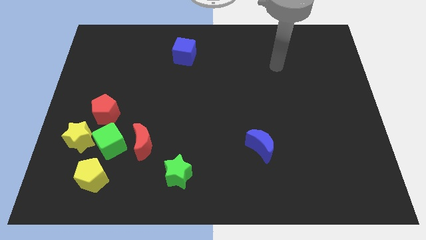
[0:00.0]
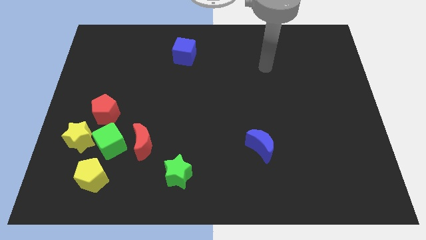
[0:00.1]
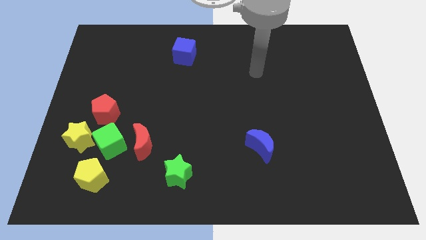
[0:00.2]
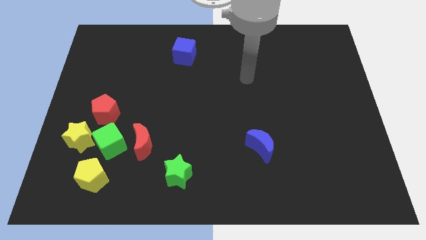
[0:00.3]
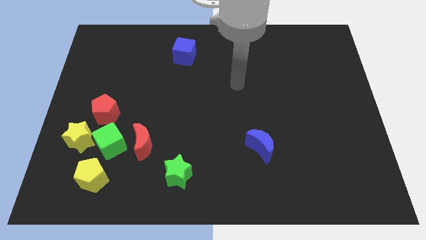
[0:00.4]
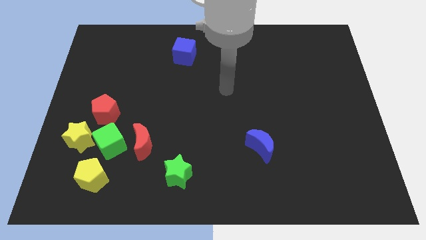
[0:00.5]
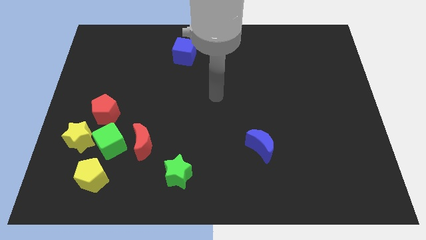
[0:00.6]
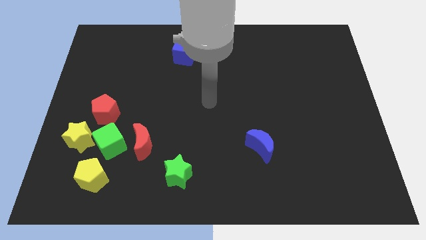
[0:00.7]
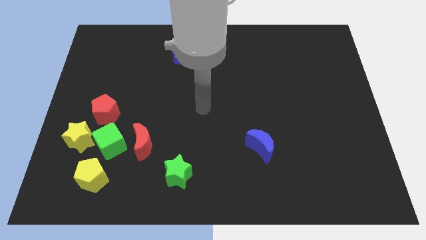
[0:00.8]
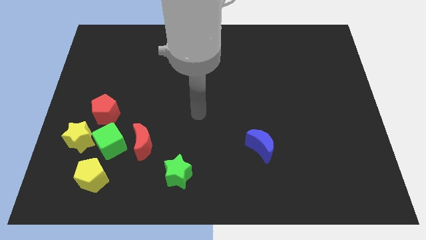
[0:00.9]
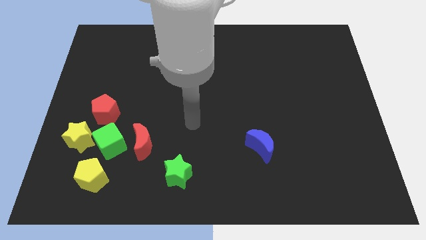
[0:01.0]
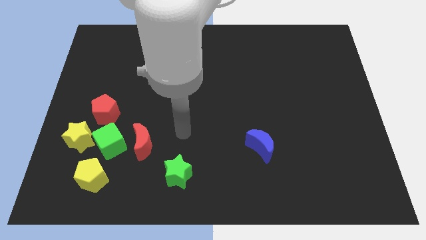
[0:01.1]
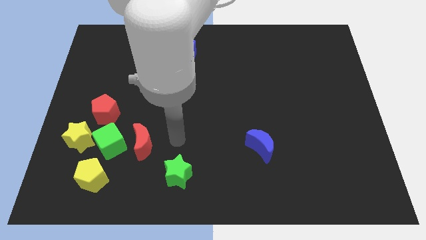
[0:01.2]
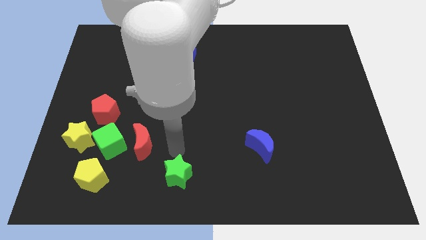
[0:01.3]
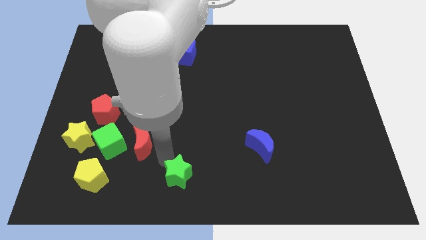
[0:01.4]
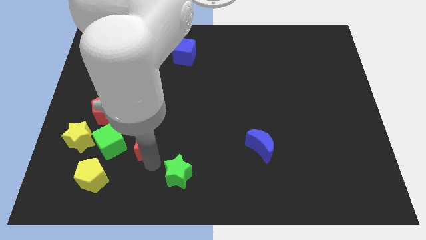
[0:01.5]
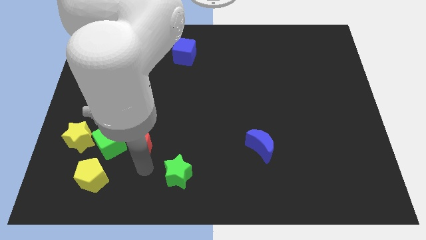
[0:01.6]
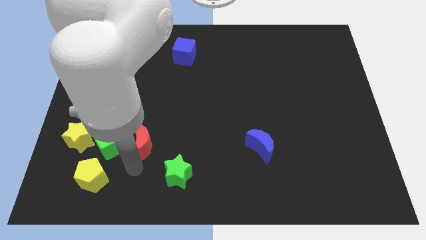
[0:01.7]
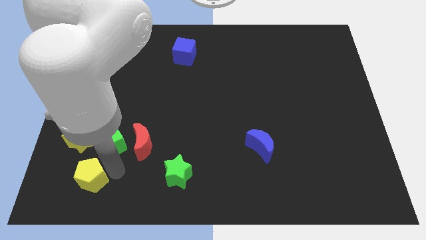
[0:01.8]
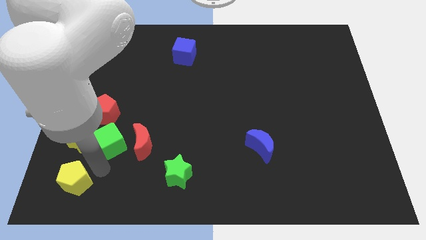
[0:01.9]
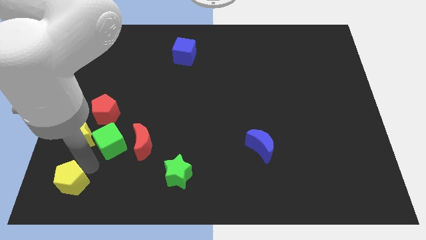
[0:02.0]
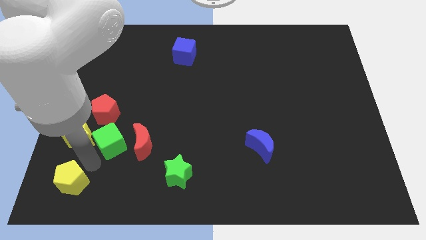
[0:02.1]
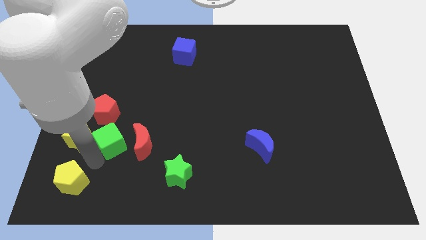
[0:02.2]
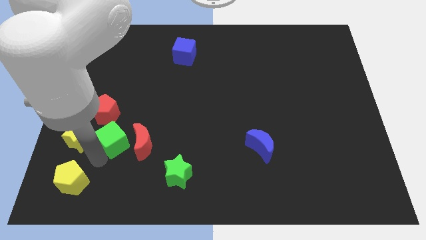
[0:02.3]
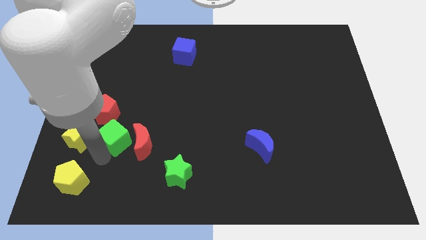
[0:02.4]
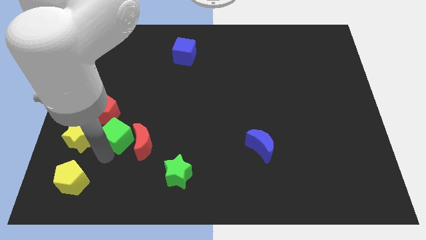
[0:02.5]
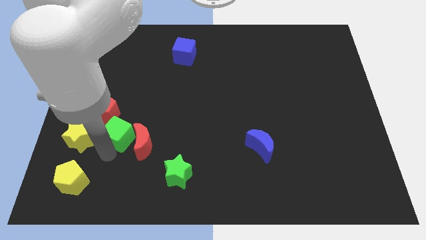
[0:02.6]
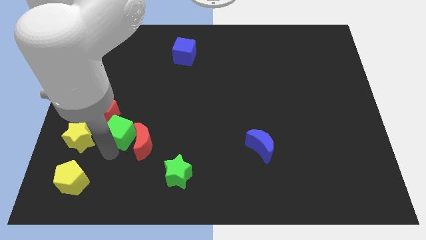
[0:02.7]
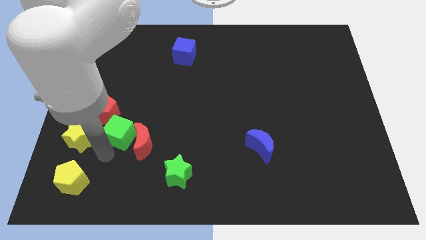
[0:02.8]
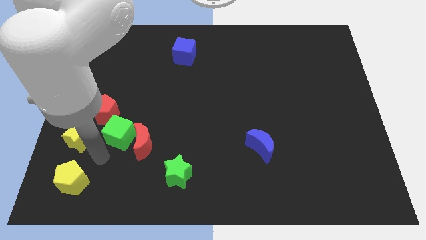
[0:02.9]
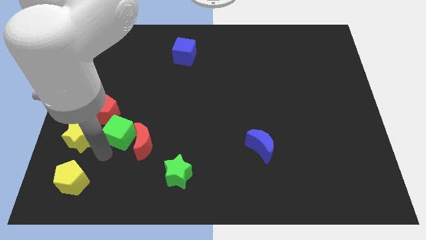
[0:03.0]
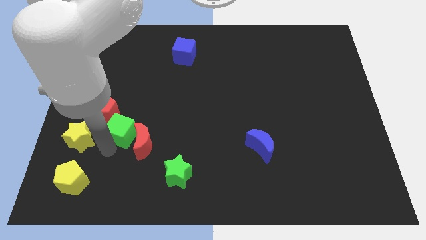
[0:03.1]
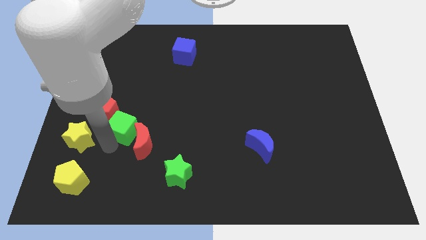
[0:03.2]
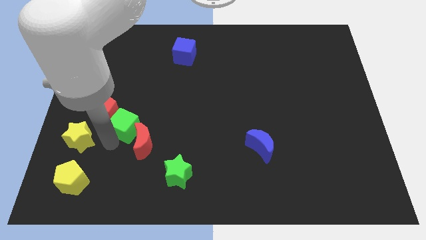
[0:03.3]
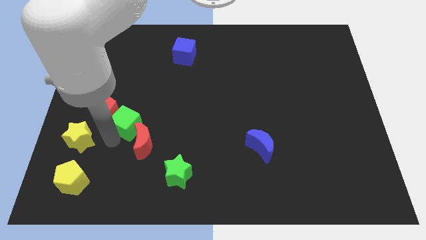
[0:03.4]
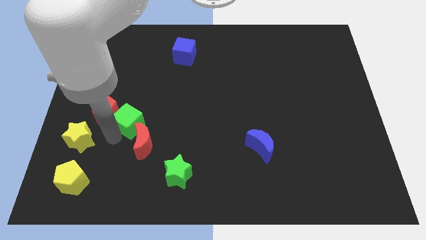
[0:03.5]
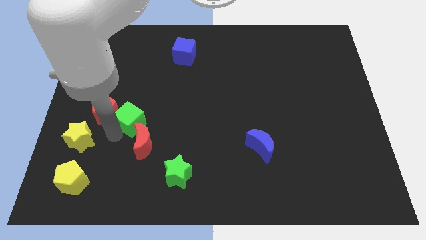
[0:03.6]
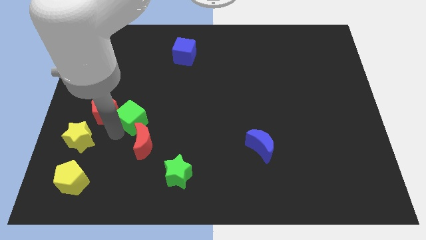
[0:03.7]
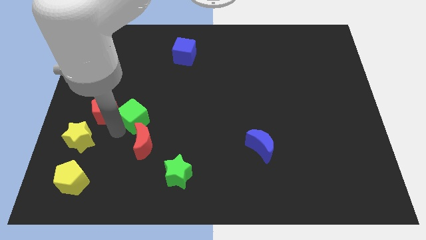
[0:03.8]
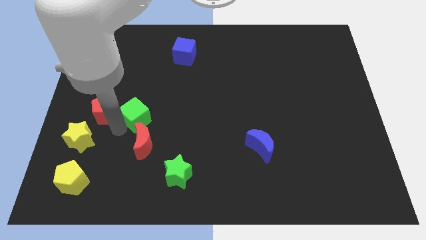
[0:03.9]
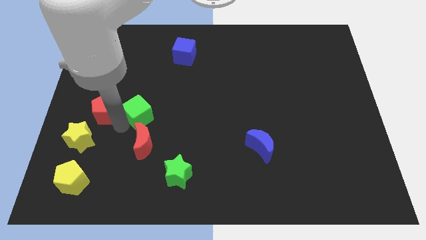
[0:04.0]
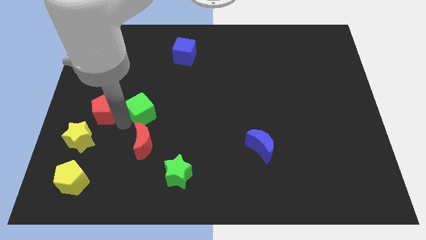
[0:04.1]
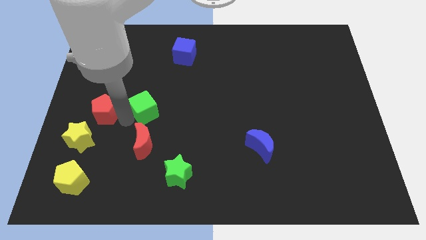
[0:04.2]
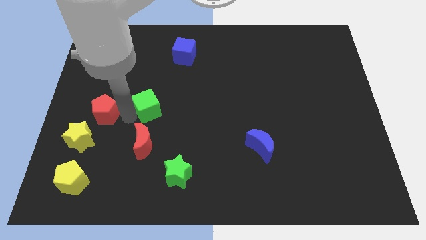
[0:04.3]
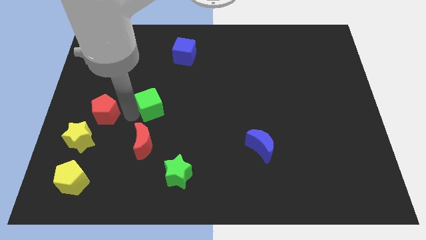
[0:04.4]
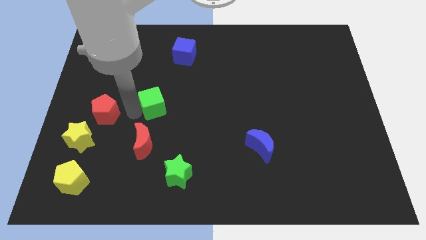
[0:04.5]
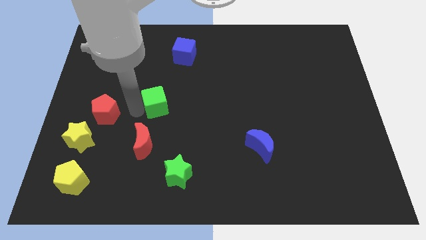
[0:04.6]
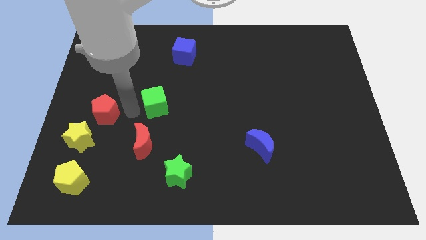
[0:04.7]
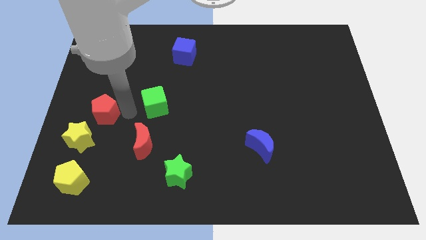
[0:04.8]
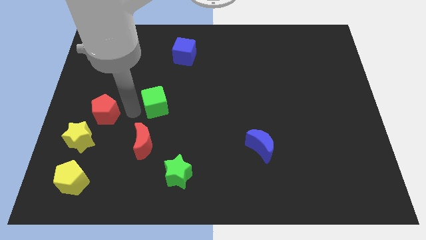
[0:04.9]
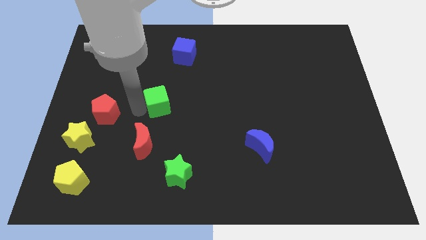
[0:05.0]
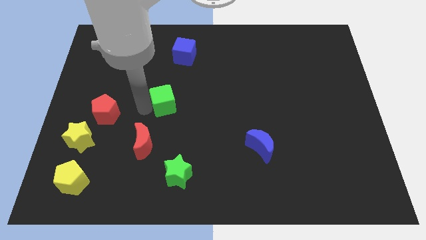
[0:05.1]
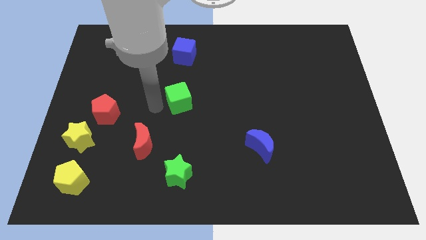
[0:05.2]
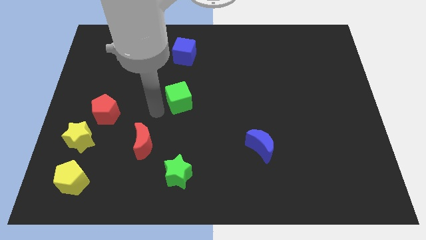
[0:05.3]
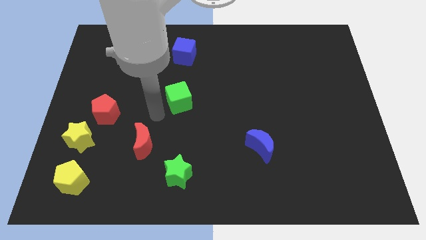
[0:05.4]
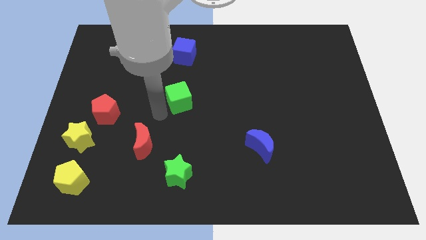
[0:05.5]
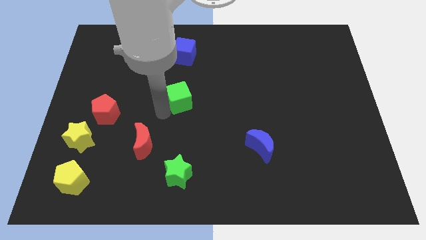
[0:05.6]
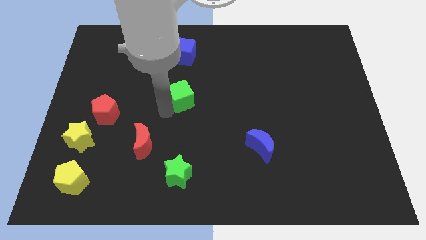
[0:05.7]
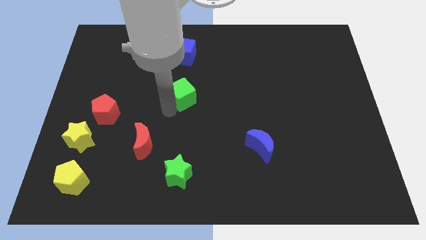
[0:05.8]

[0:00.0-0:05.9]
push the green cube up and then right

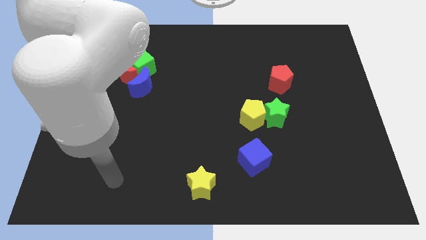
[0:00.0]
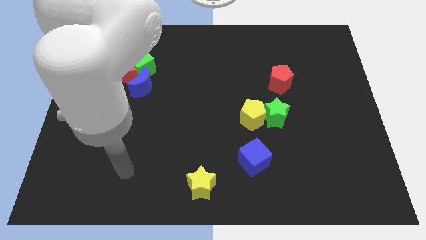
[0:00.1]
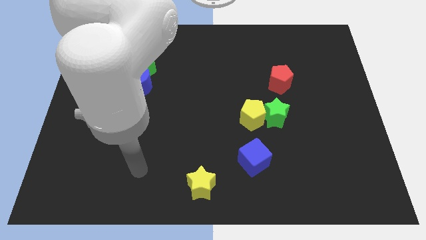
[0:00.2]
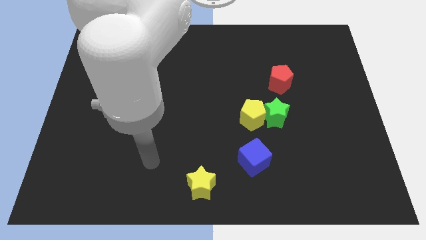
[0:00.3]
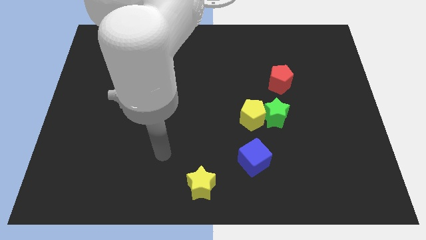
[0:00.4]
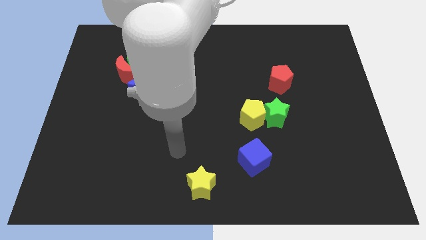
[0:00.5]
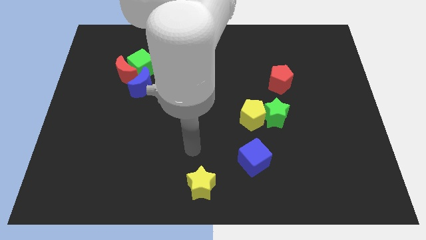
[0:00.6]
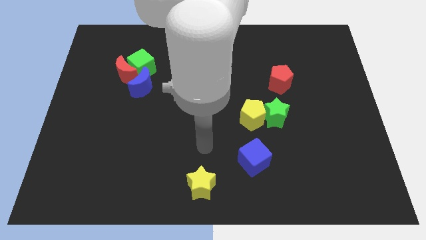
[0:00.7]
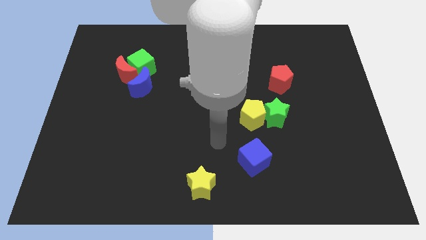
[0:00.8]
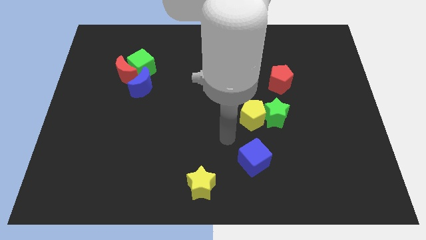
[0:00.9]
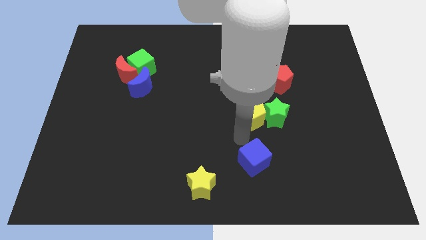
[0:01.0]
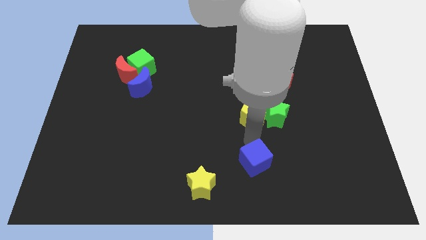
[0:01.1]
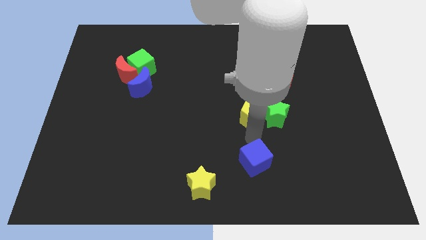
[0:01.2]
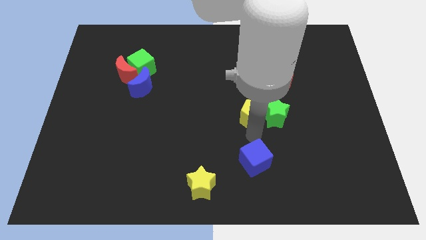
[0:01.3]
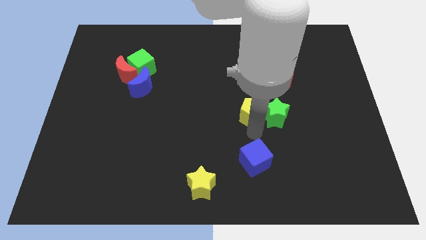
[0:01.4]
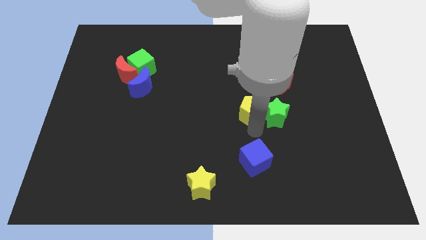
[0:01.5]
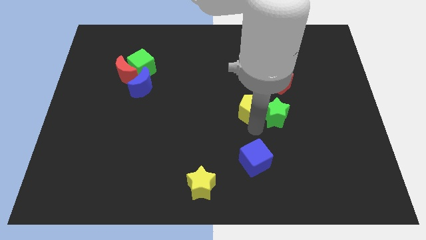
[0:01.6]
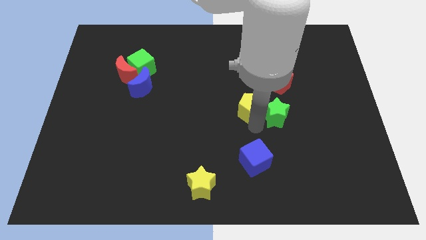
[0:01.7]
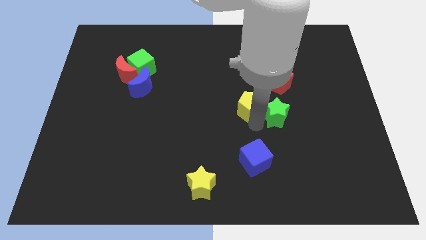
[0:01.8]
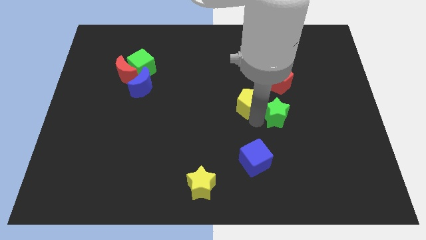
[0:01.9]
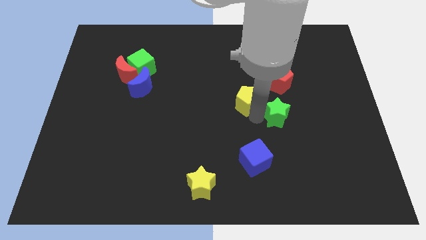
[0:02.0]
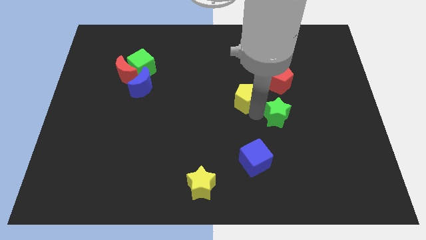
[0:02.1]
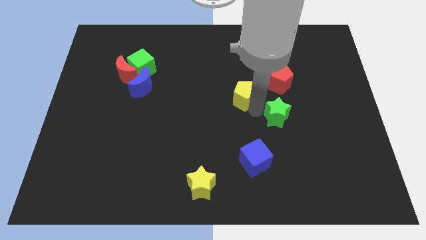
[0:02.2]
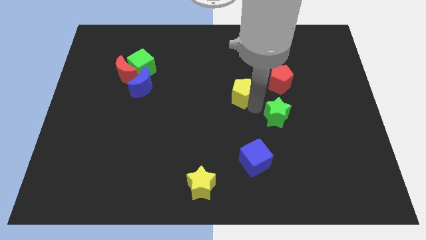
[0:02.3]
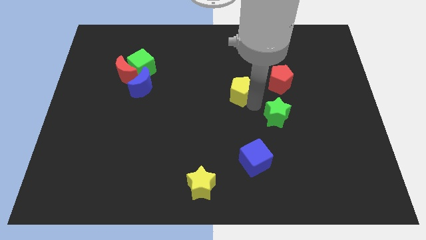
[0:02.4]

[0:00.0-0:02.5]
push the yellow pentagon up a little bit
